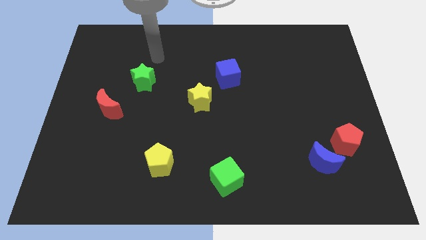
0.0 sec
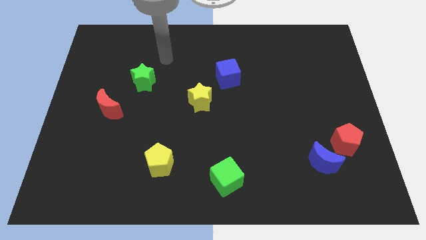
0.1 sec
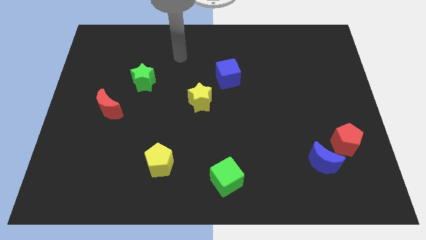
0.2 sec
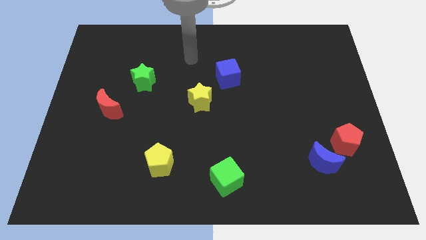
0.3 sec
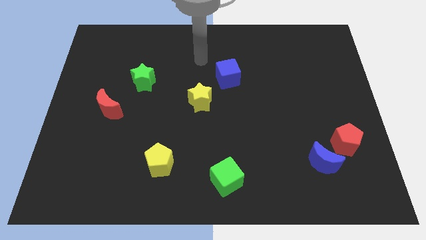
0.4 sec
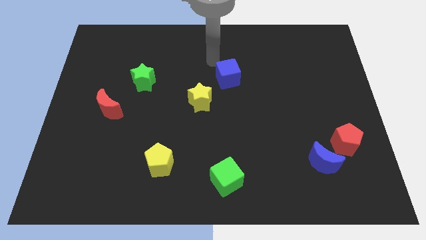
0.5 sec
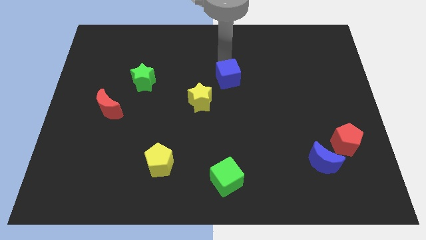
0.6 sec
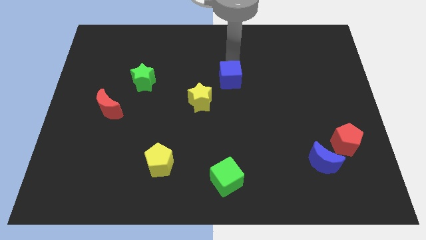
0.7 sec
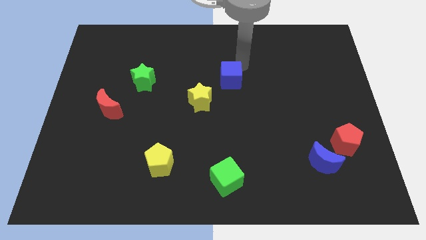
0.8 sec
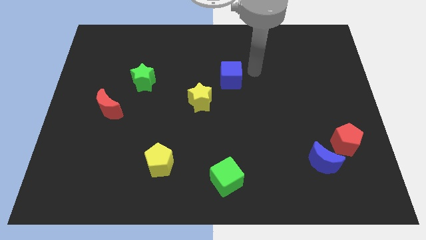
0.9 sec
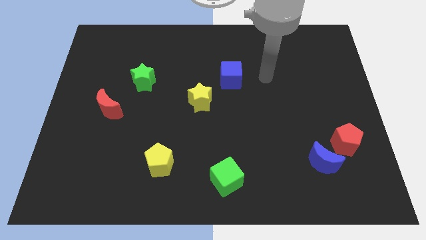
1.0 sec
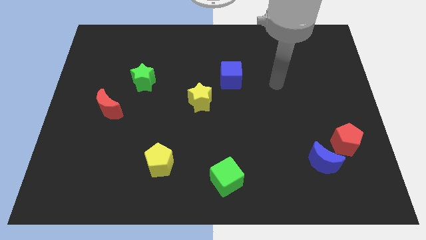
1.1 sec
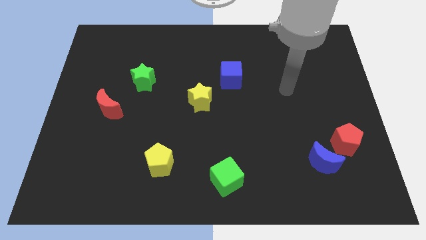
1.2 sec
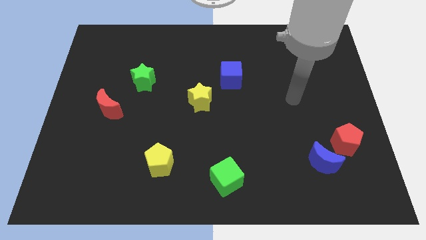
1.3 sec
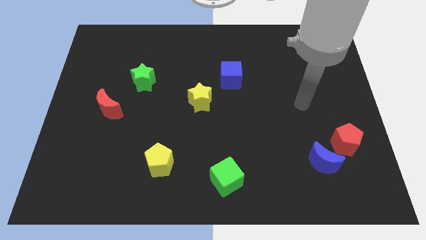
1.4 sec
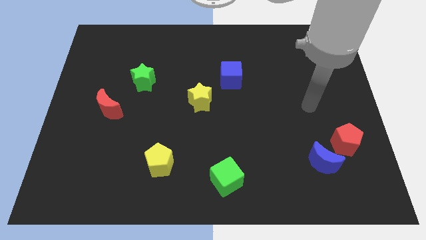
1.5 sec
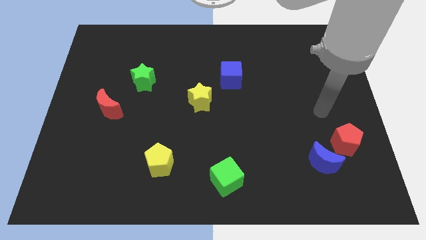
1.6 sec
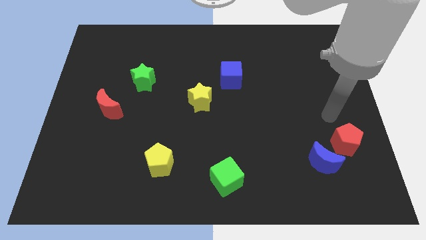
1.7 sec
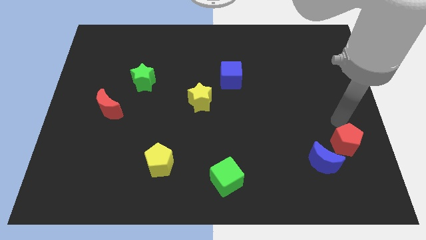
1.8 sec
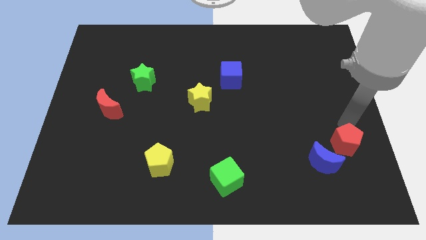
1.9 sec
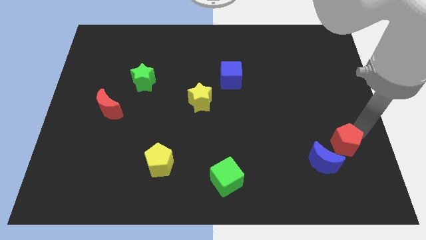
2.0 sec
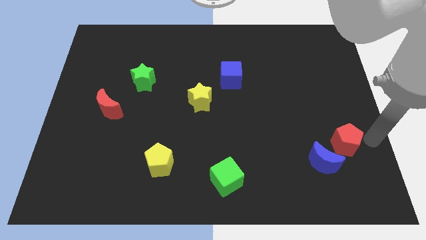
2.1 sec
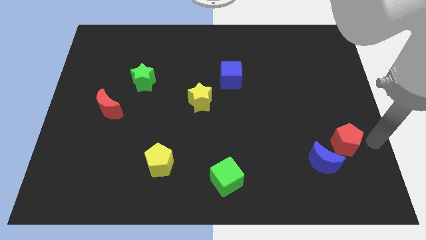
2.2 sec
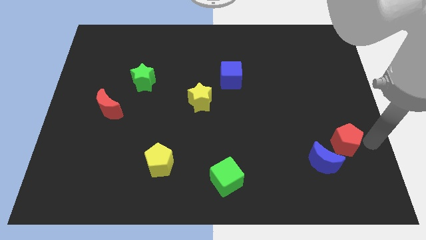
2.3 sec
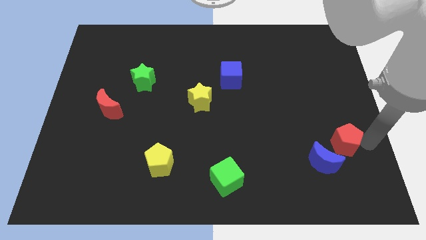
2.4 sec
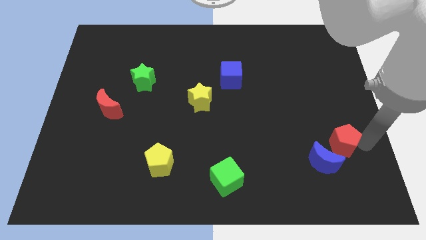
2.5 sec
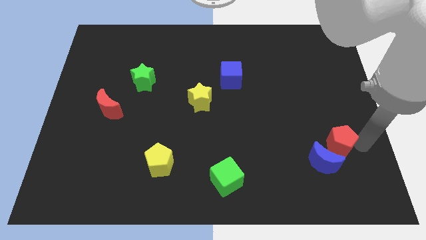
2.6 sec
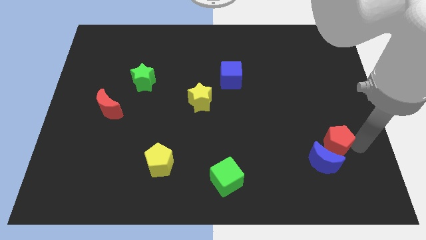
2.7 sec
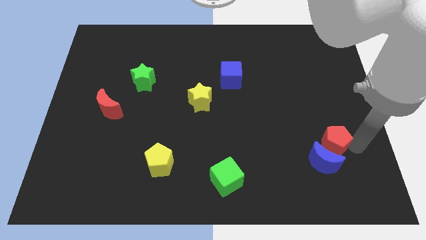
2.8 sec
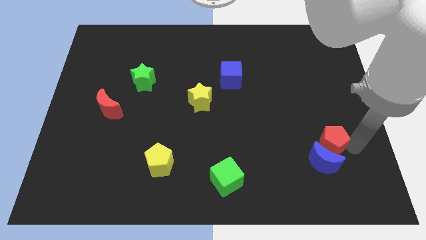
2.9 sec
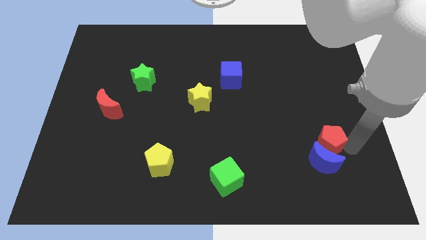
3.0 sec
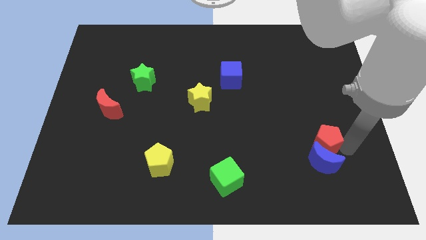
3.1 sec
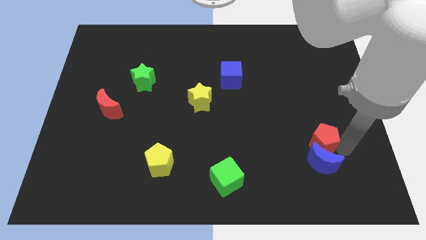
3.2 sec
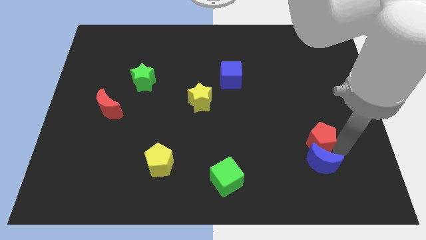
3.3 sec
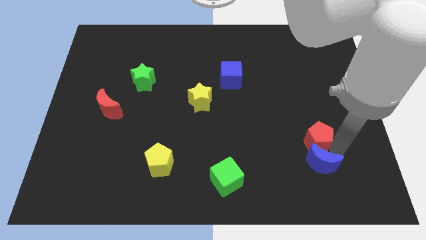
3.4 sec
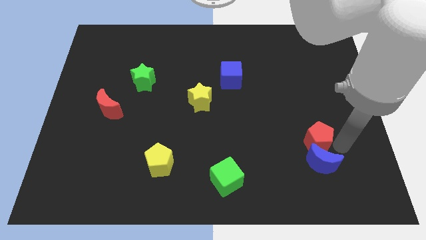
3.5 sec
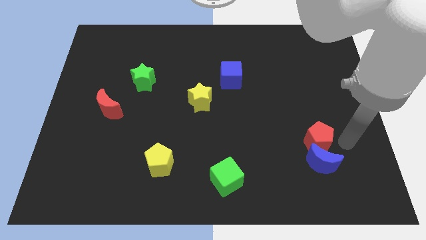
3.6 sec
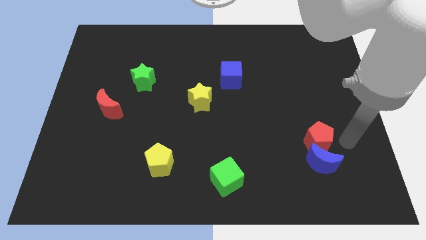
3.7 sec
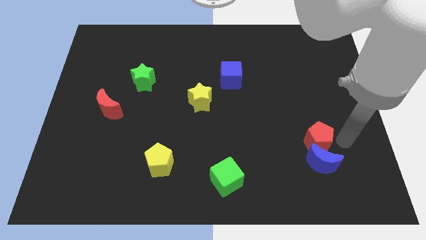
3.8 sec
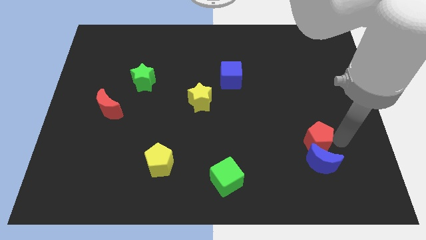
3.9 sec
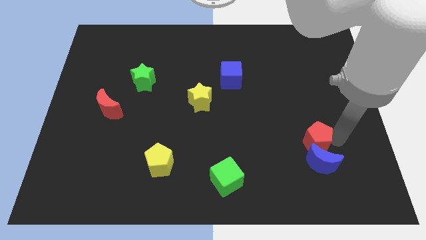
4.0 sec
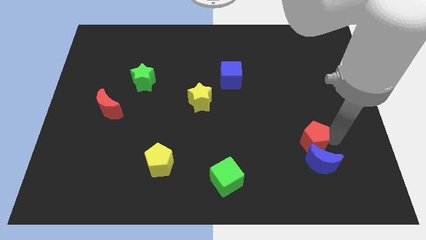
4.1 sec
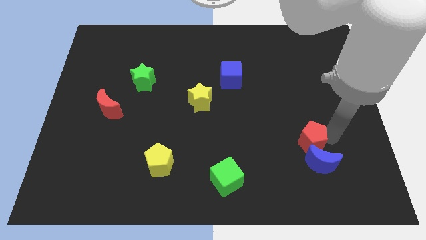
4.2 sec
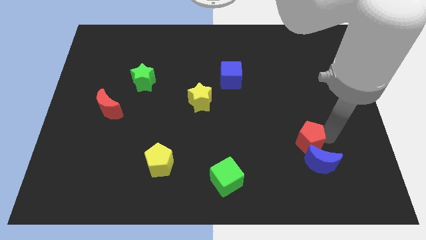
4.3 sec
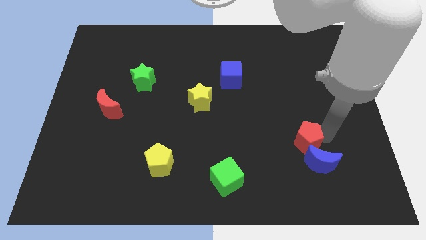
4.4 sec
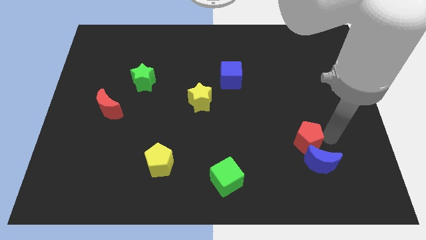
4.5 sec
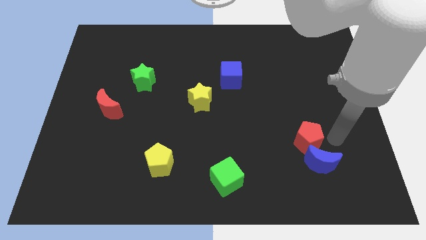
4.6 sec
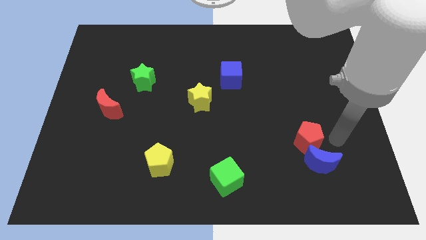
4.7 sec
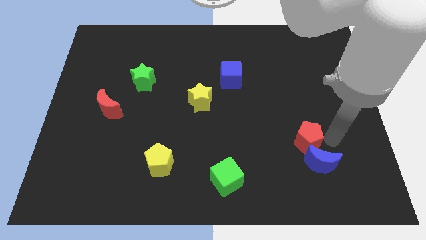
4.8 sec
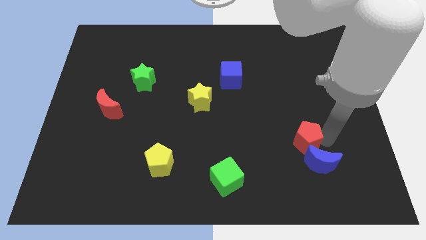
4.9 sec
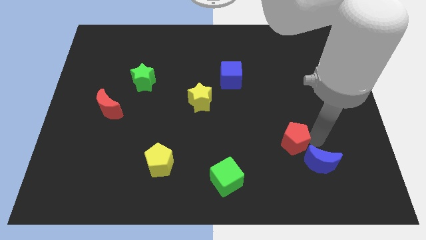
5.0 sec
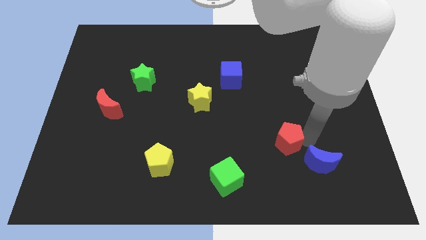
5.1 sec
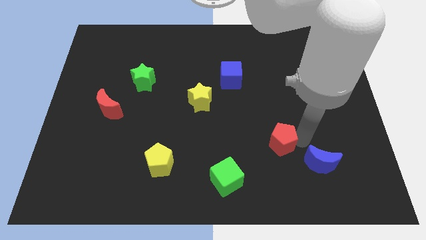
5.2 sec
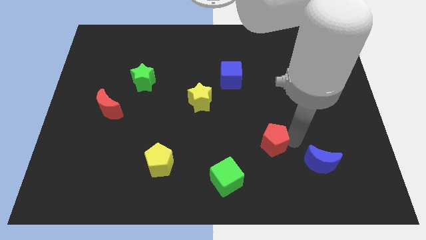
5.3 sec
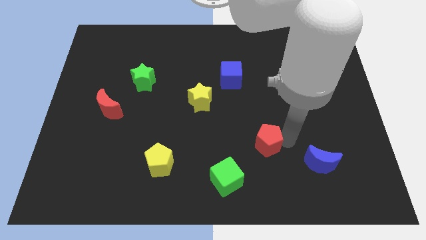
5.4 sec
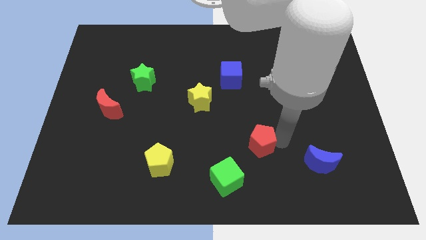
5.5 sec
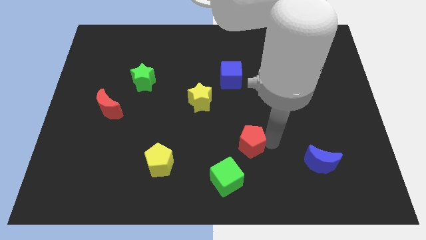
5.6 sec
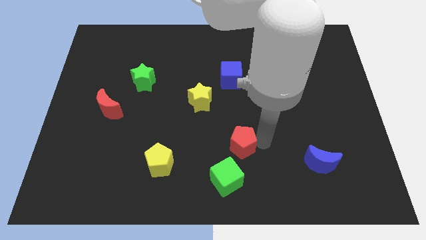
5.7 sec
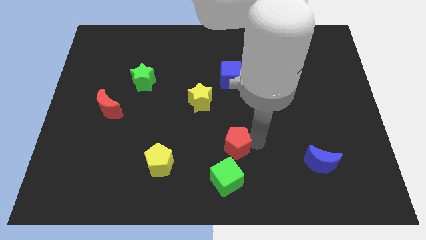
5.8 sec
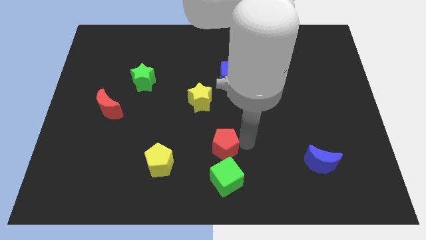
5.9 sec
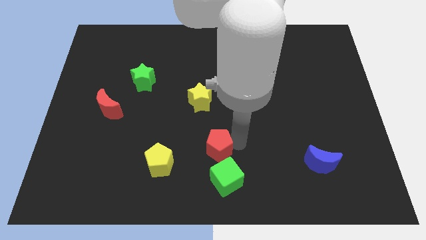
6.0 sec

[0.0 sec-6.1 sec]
move the red pentagon to the top left side of the green cube

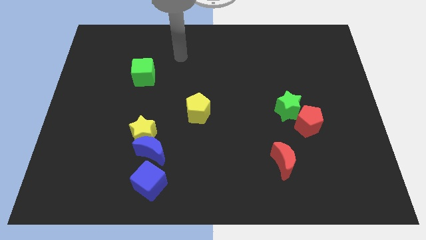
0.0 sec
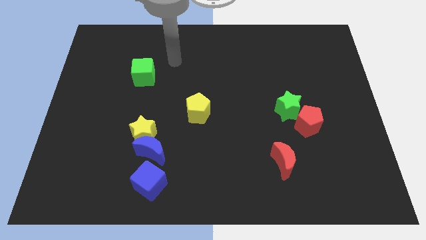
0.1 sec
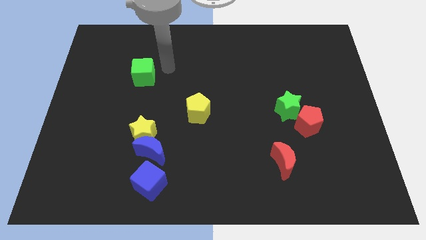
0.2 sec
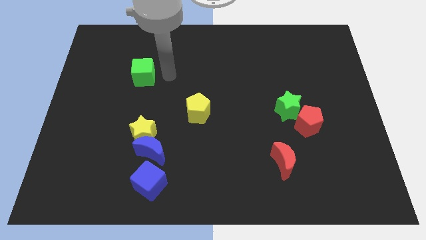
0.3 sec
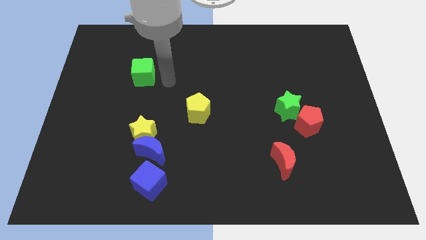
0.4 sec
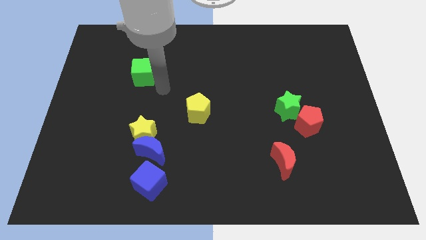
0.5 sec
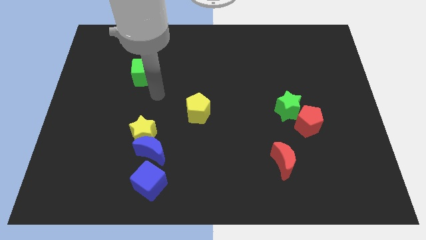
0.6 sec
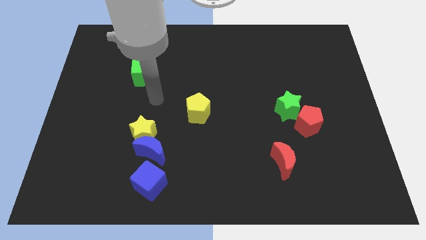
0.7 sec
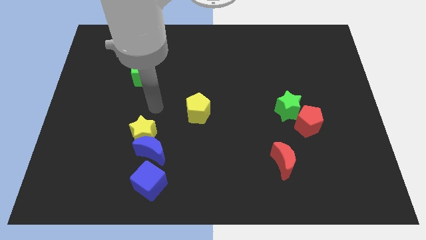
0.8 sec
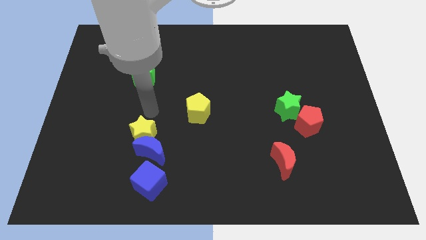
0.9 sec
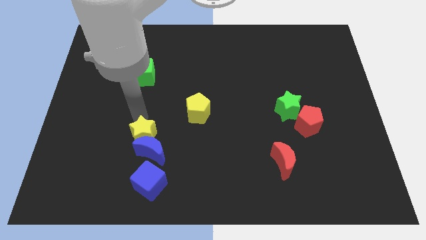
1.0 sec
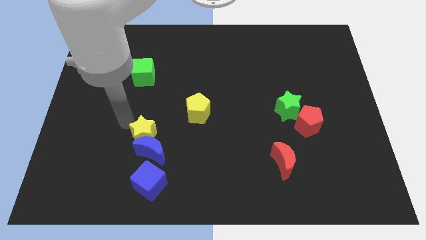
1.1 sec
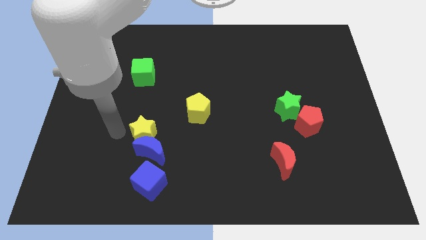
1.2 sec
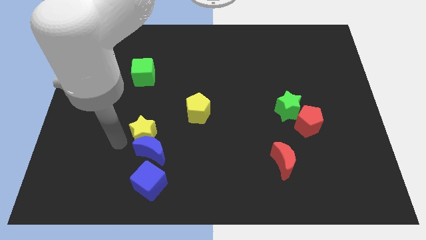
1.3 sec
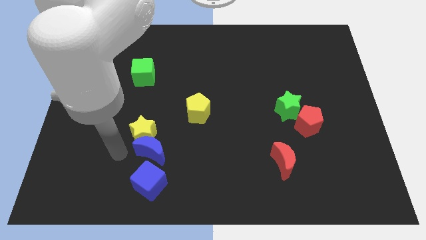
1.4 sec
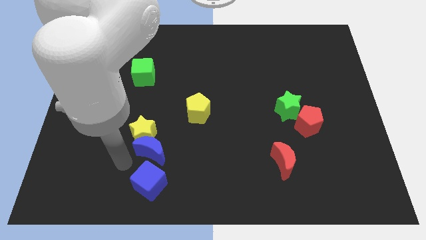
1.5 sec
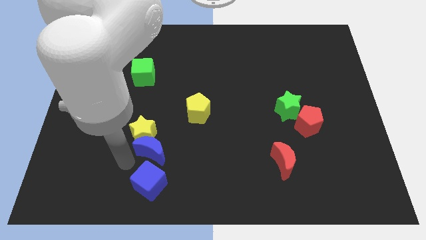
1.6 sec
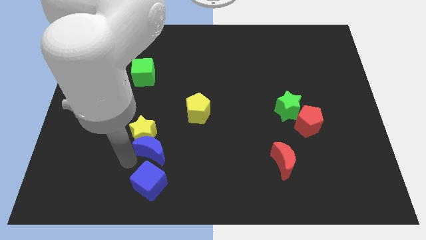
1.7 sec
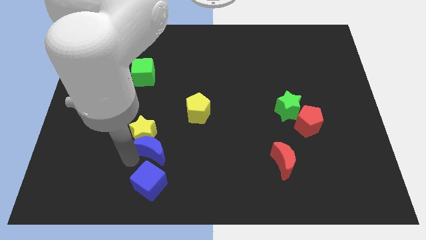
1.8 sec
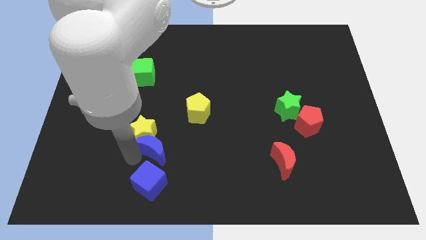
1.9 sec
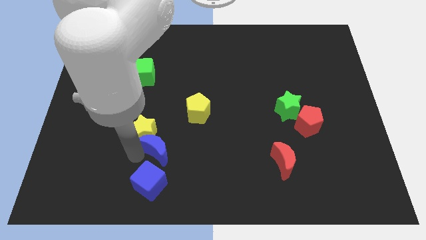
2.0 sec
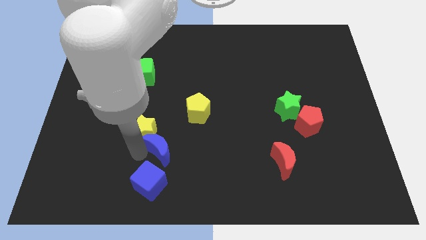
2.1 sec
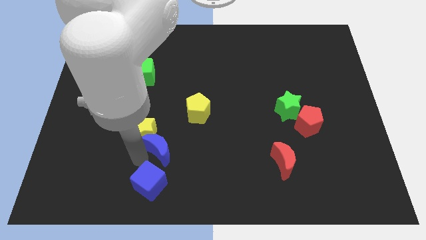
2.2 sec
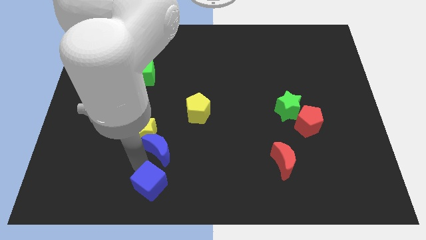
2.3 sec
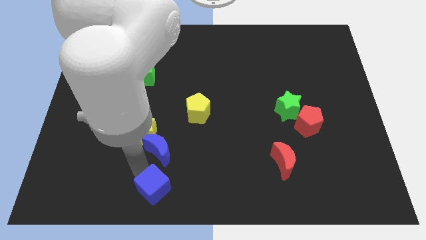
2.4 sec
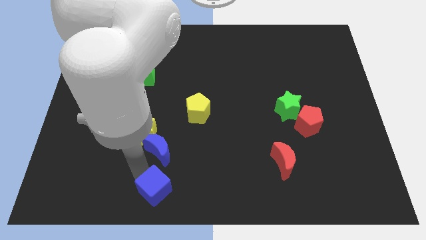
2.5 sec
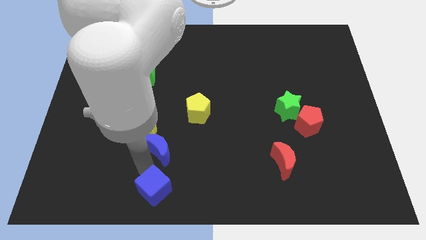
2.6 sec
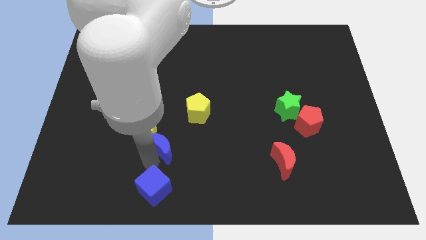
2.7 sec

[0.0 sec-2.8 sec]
push the blue moon diagonally down and to the left of the yellow pentagon
